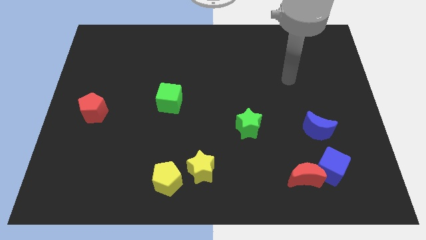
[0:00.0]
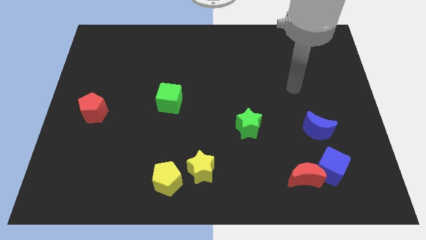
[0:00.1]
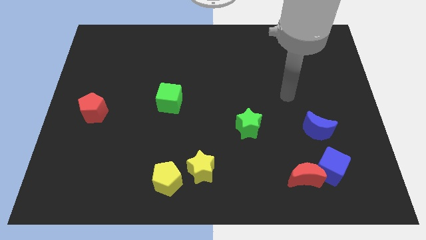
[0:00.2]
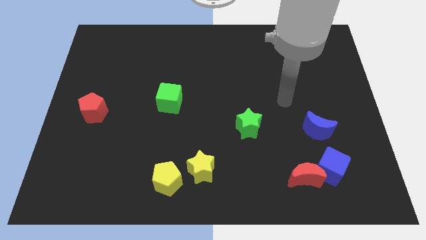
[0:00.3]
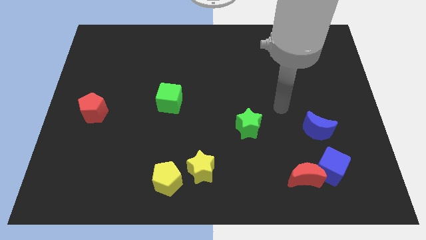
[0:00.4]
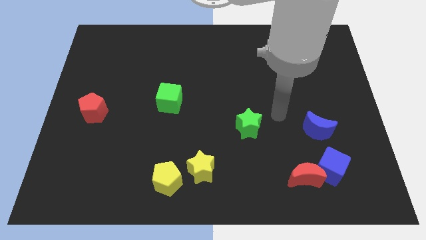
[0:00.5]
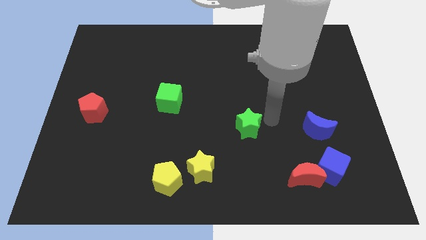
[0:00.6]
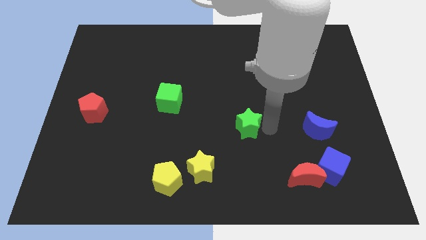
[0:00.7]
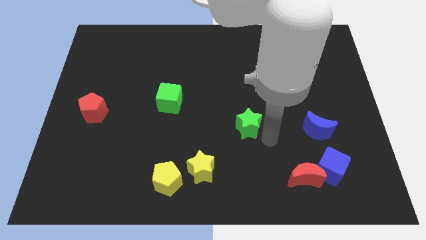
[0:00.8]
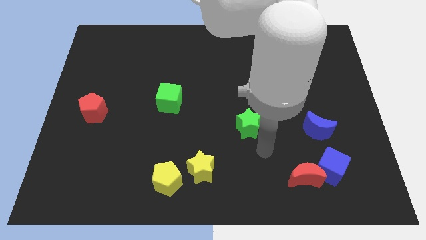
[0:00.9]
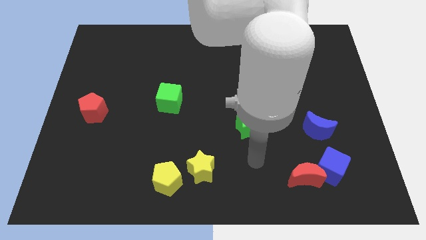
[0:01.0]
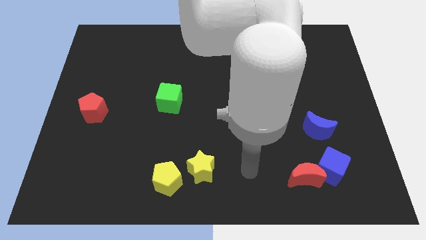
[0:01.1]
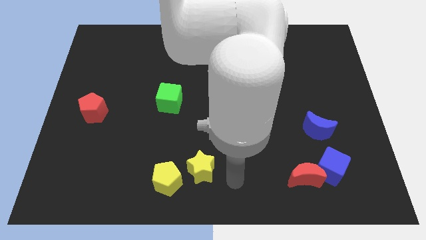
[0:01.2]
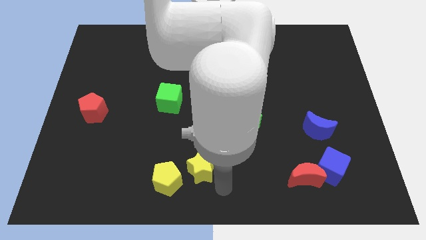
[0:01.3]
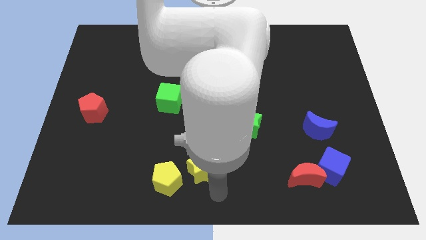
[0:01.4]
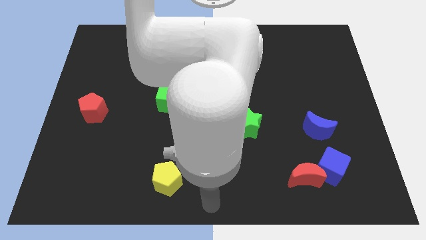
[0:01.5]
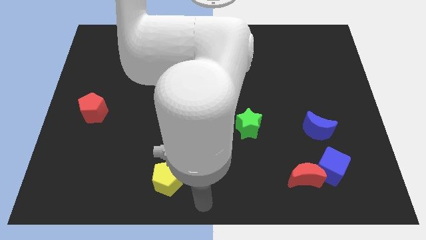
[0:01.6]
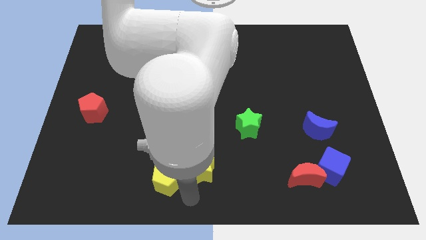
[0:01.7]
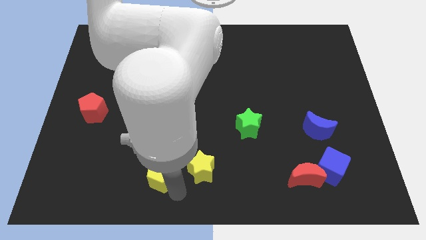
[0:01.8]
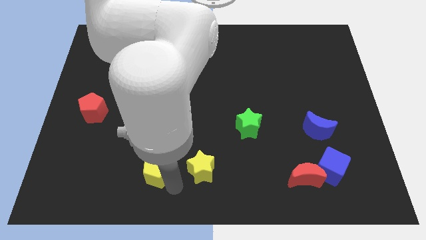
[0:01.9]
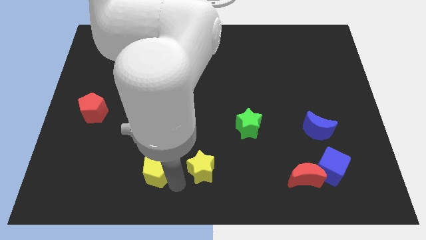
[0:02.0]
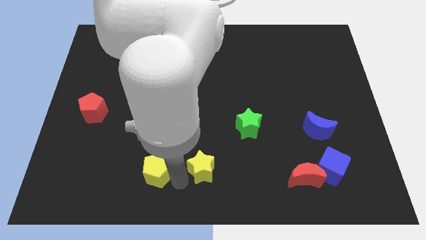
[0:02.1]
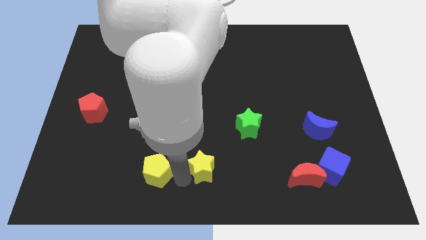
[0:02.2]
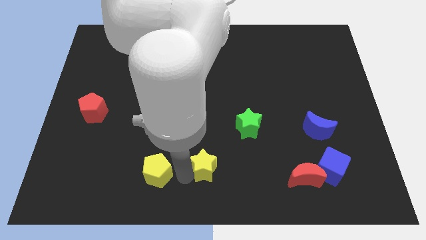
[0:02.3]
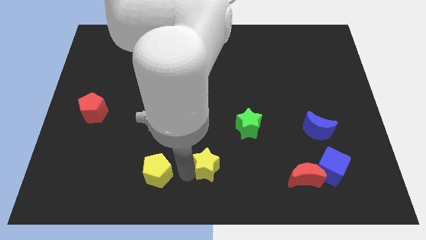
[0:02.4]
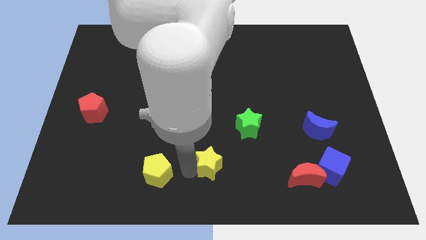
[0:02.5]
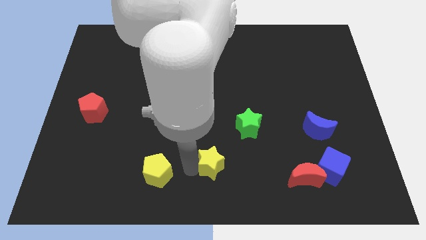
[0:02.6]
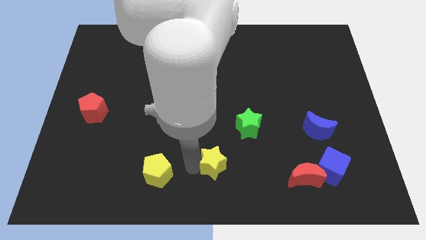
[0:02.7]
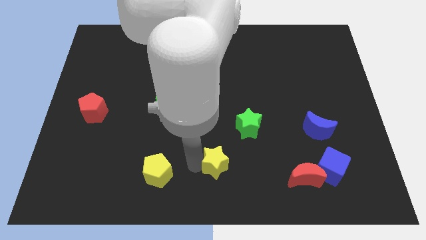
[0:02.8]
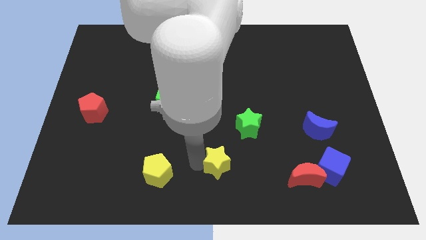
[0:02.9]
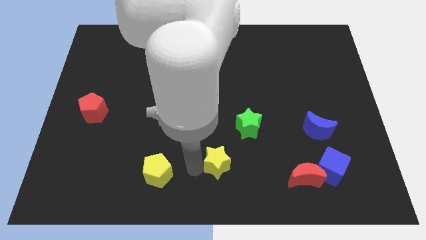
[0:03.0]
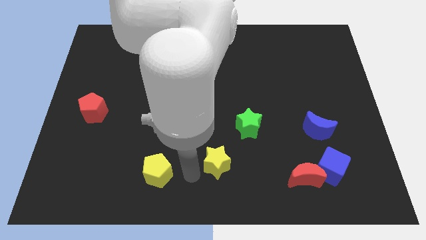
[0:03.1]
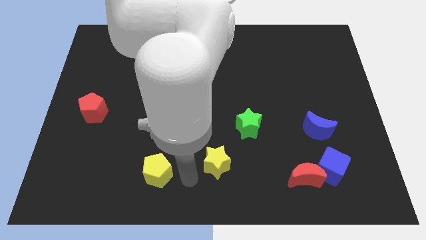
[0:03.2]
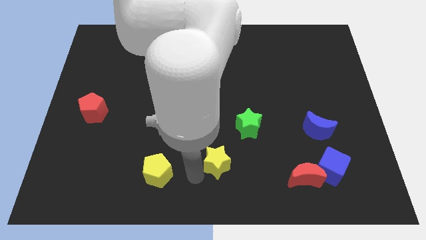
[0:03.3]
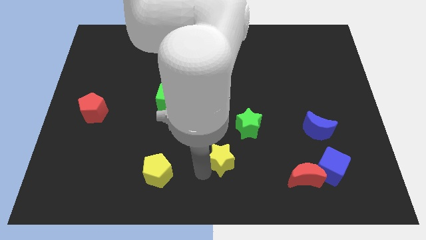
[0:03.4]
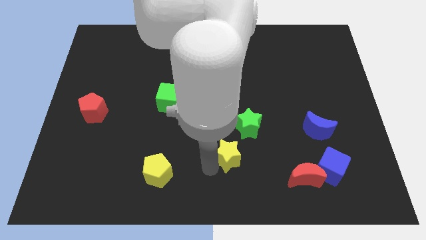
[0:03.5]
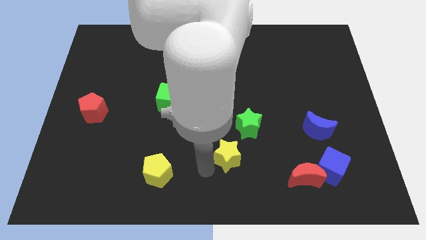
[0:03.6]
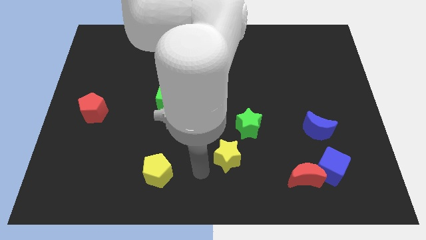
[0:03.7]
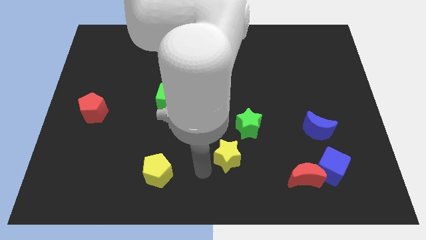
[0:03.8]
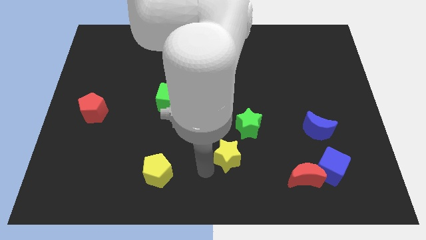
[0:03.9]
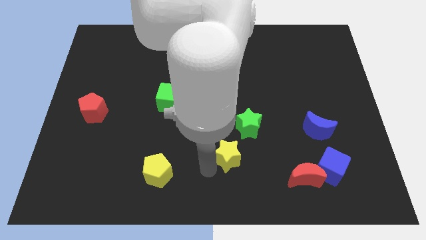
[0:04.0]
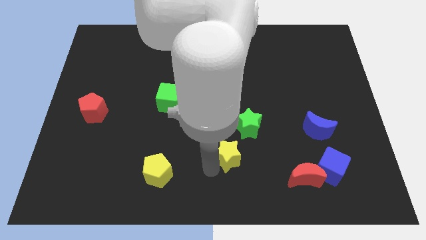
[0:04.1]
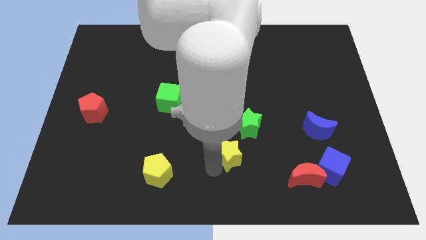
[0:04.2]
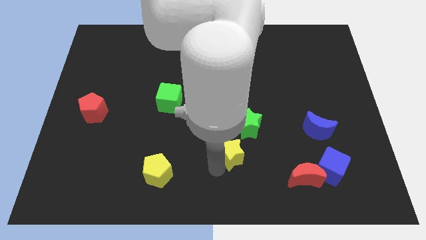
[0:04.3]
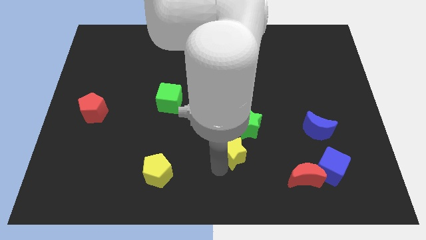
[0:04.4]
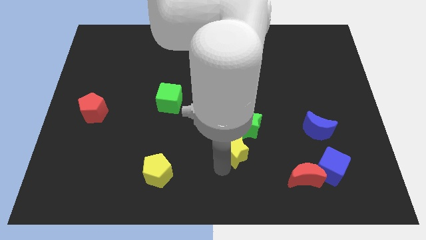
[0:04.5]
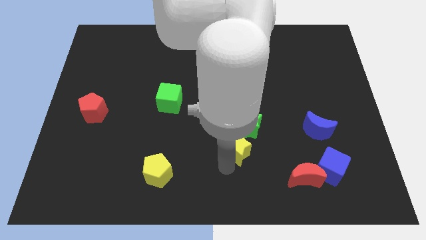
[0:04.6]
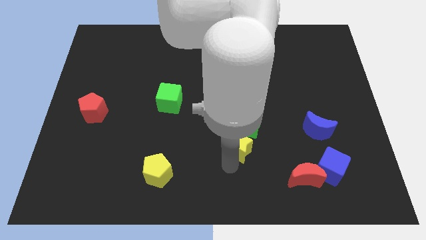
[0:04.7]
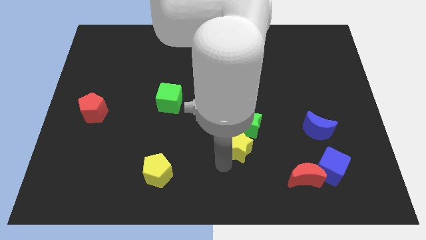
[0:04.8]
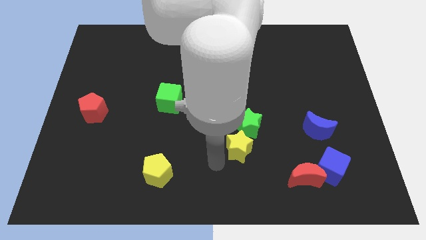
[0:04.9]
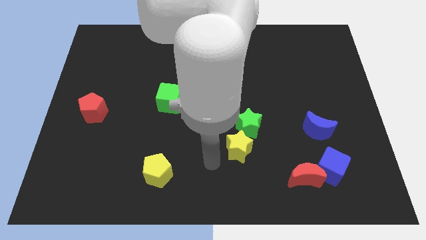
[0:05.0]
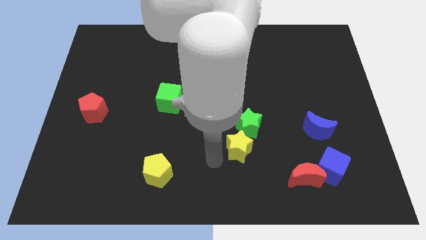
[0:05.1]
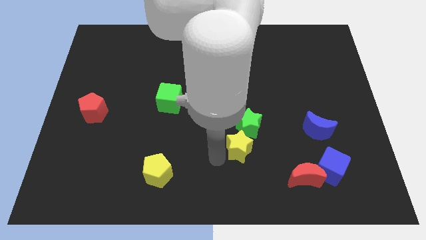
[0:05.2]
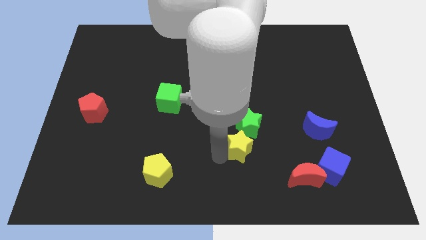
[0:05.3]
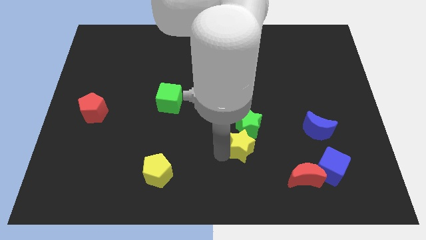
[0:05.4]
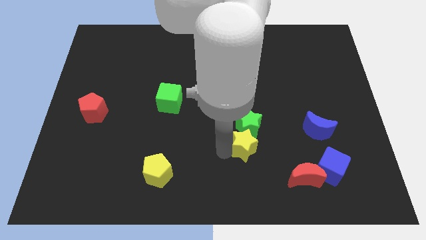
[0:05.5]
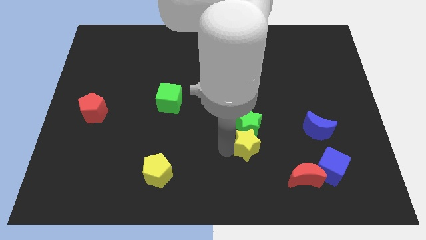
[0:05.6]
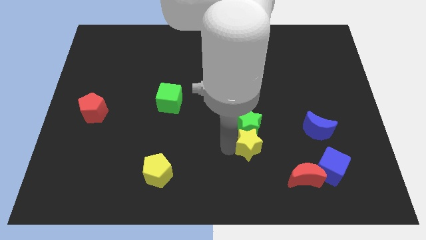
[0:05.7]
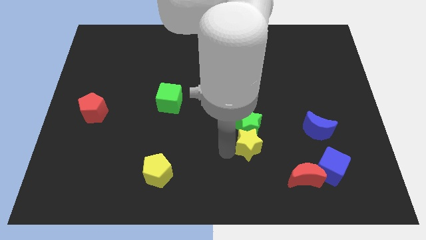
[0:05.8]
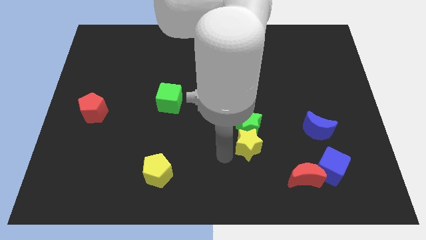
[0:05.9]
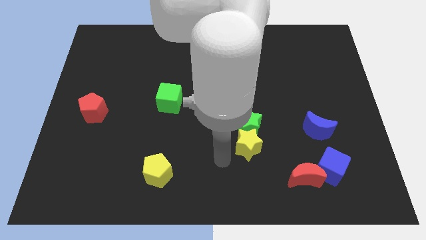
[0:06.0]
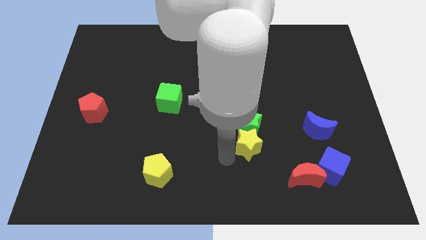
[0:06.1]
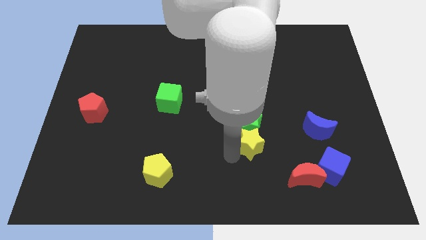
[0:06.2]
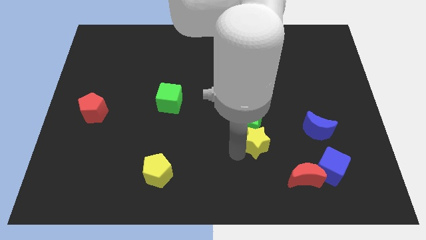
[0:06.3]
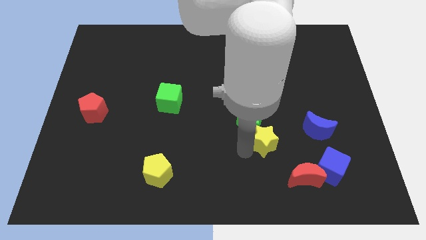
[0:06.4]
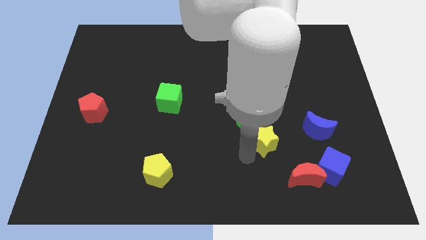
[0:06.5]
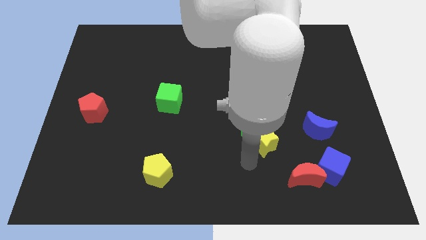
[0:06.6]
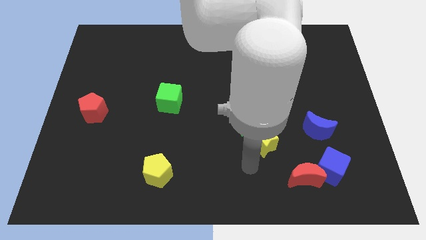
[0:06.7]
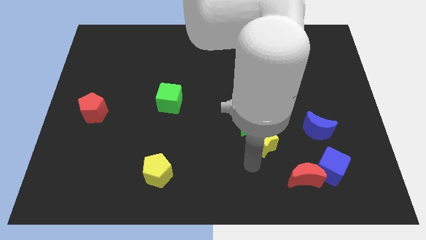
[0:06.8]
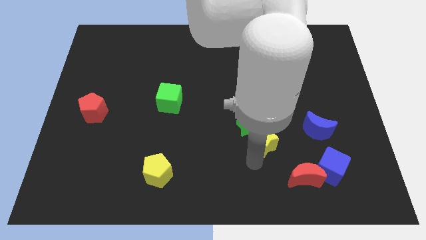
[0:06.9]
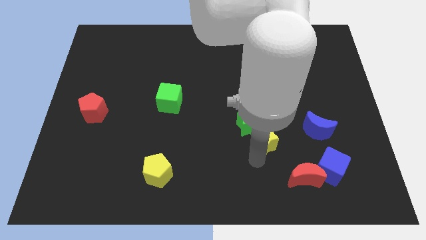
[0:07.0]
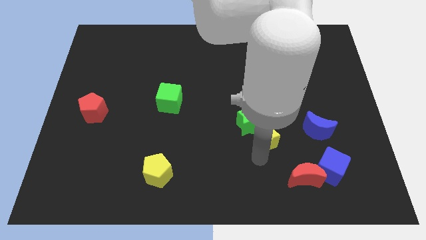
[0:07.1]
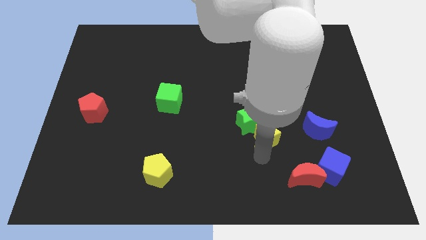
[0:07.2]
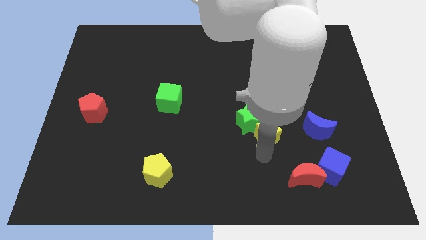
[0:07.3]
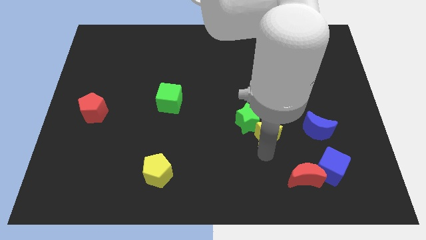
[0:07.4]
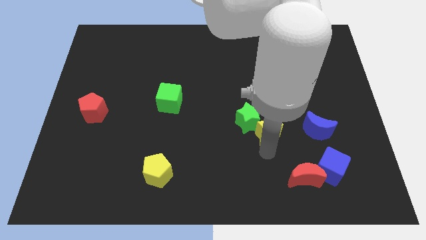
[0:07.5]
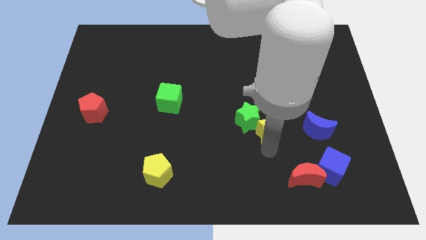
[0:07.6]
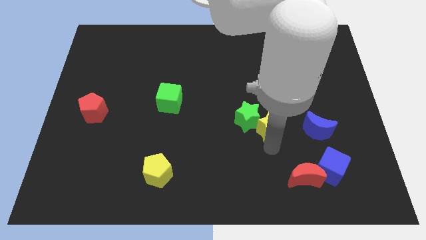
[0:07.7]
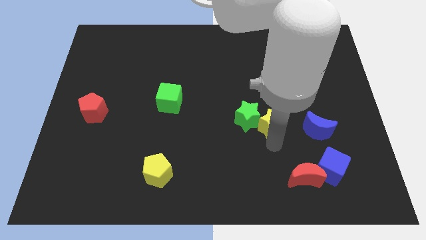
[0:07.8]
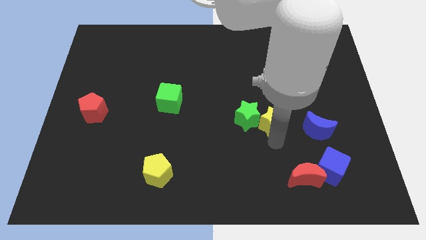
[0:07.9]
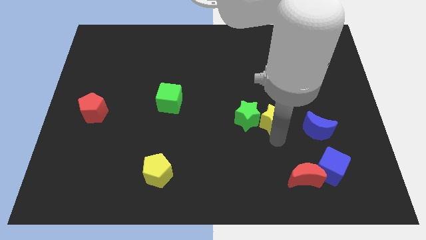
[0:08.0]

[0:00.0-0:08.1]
push the yellow star to the top right side of the green star
